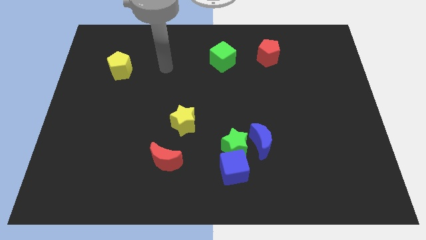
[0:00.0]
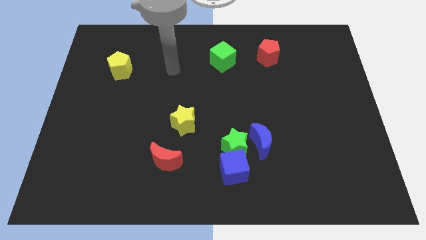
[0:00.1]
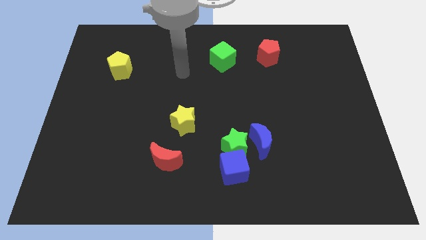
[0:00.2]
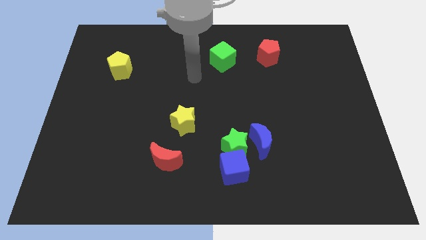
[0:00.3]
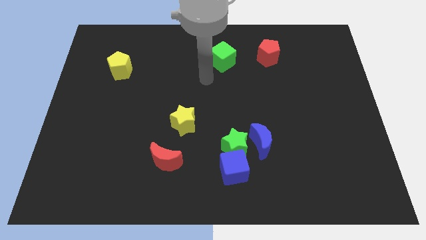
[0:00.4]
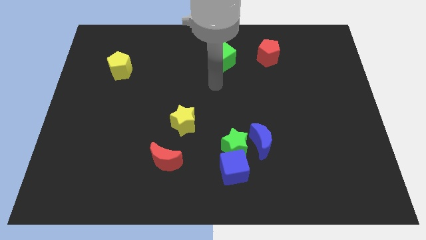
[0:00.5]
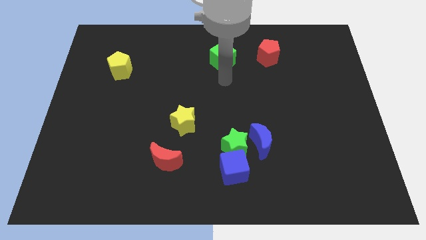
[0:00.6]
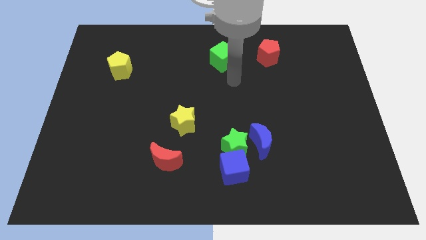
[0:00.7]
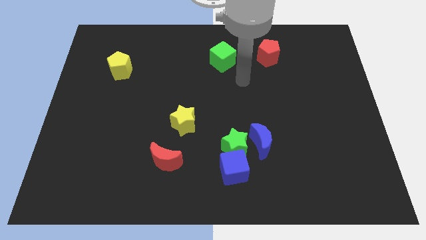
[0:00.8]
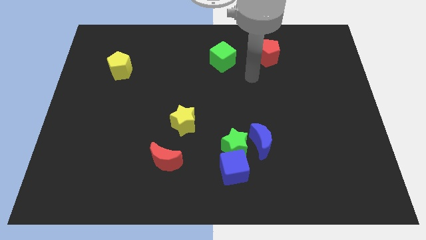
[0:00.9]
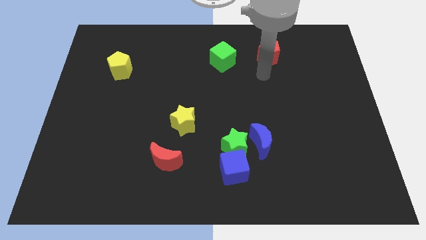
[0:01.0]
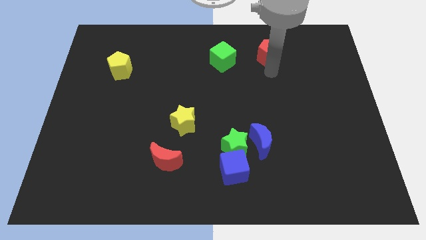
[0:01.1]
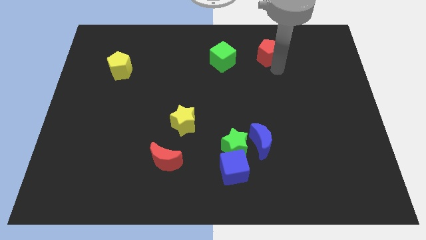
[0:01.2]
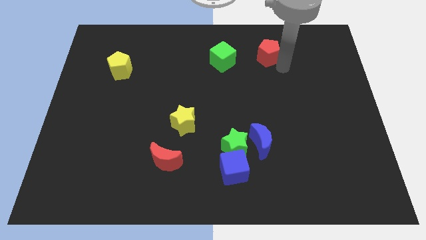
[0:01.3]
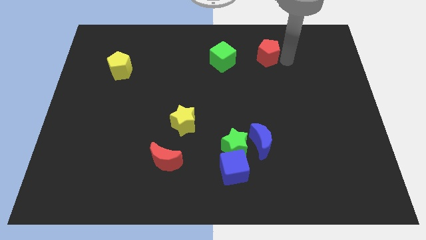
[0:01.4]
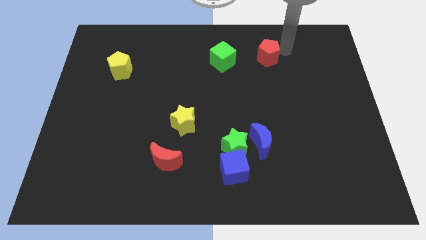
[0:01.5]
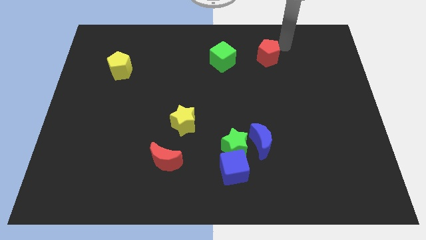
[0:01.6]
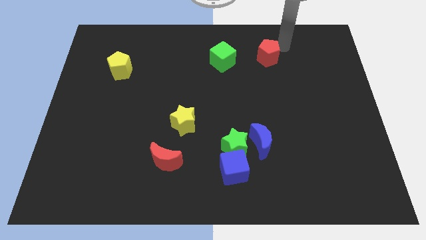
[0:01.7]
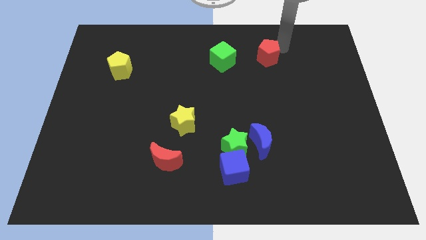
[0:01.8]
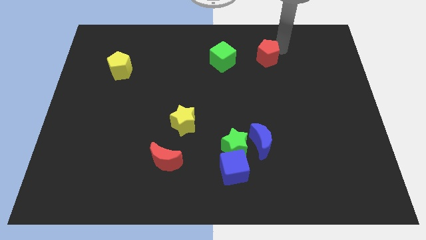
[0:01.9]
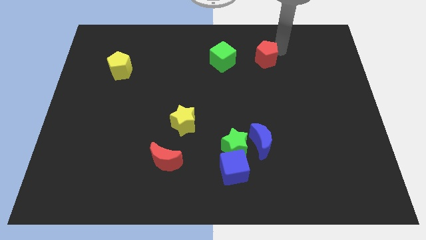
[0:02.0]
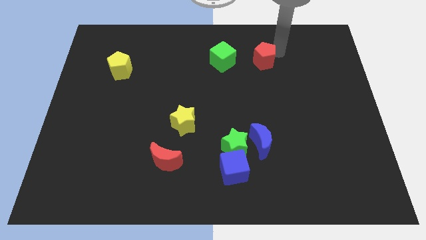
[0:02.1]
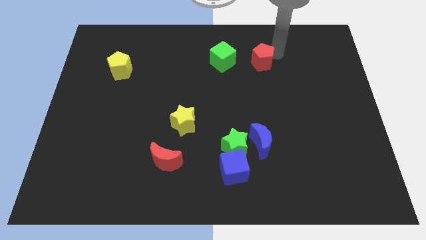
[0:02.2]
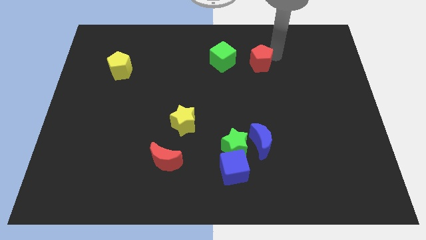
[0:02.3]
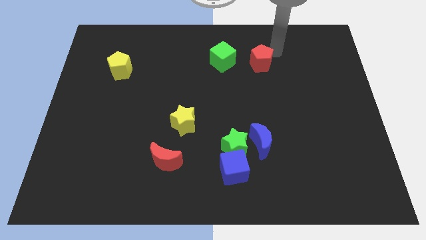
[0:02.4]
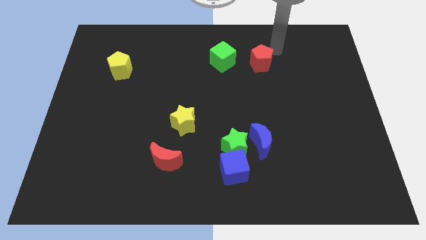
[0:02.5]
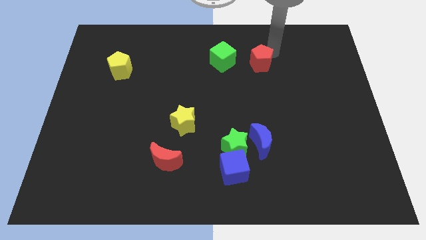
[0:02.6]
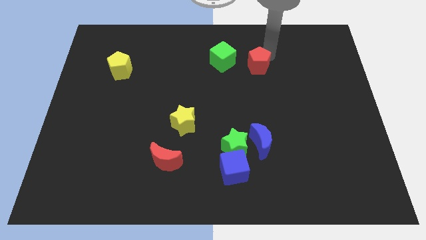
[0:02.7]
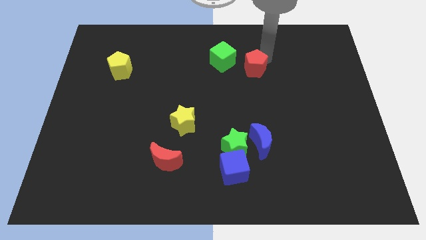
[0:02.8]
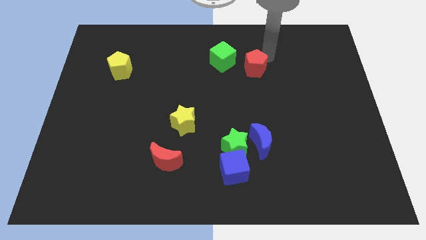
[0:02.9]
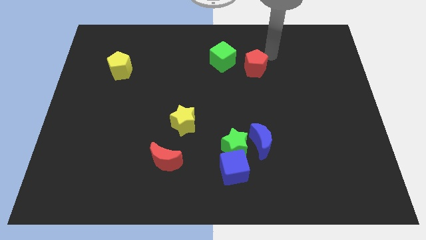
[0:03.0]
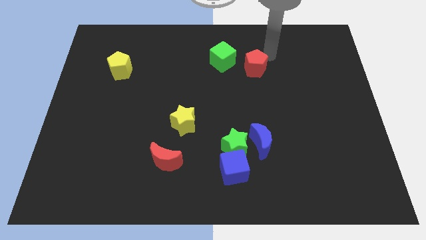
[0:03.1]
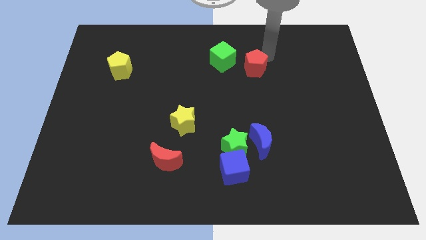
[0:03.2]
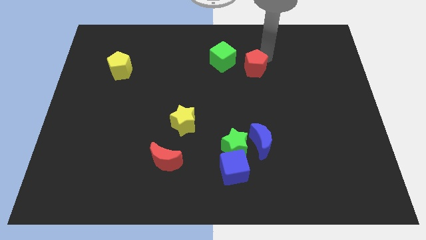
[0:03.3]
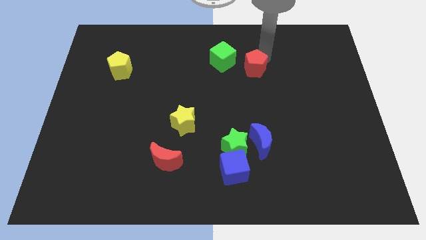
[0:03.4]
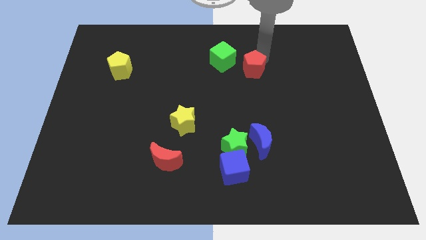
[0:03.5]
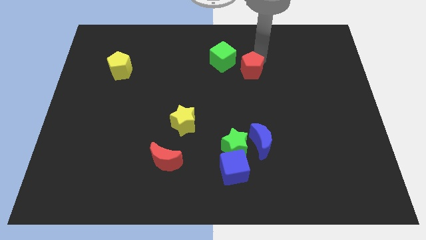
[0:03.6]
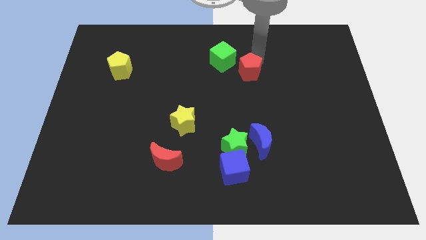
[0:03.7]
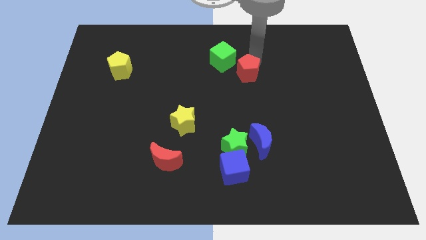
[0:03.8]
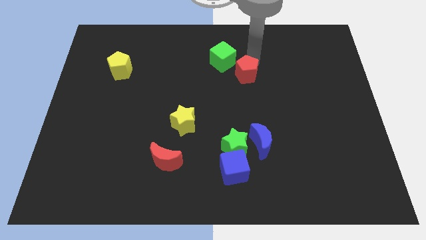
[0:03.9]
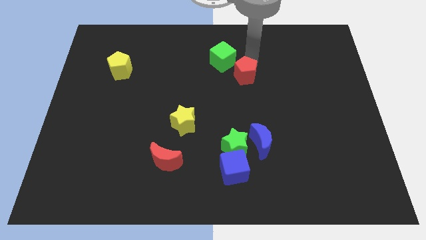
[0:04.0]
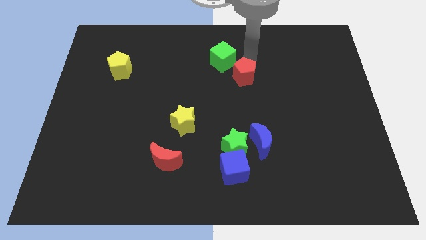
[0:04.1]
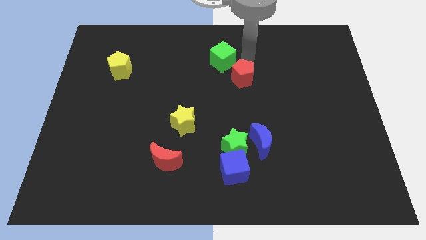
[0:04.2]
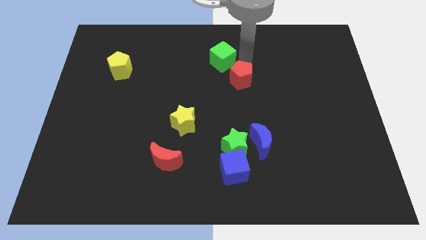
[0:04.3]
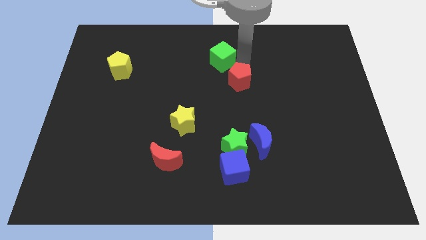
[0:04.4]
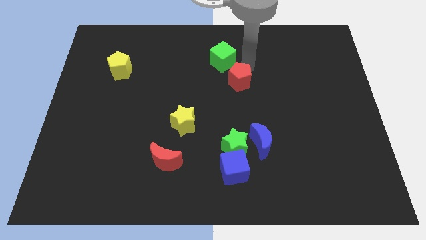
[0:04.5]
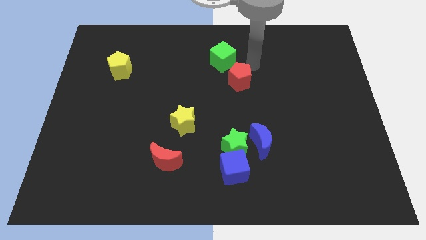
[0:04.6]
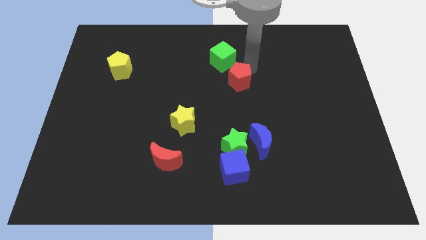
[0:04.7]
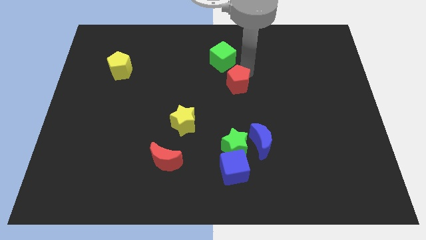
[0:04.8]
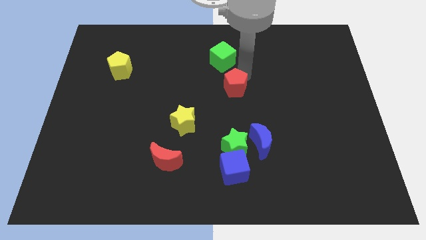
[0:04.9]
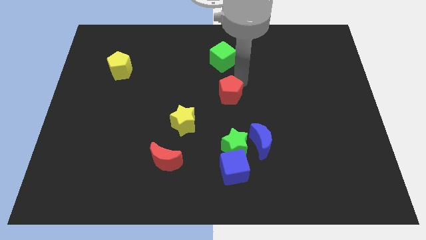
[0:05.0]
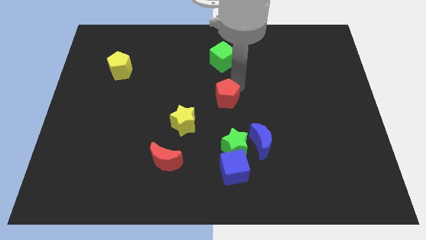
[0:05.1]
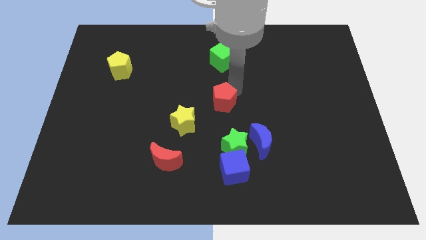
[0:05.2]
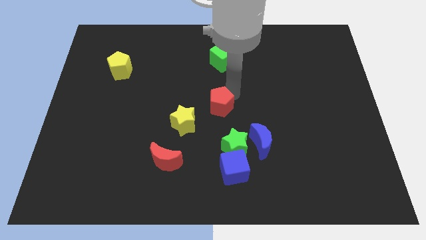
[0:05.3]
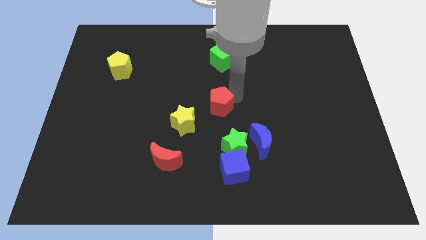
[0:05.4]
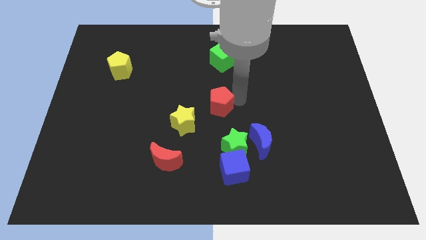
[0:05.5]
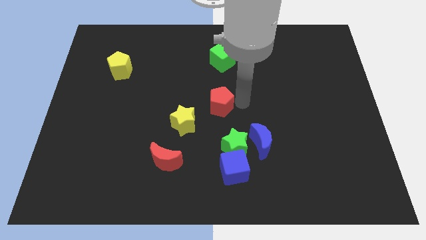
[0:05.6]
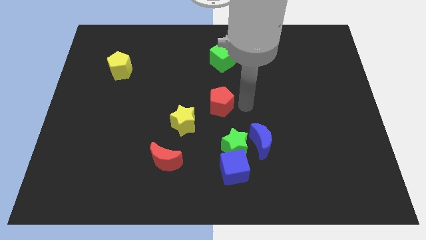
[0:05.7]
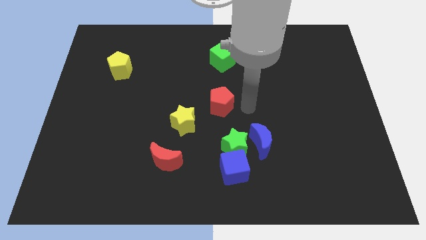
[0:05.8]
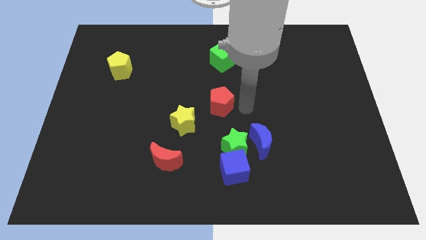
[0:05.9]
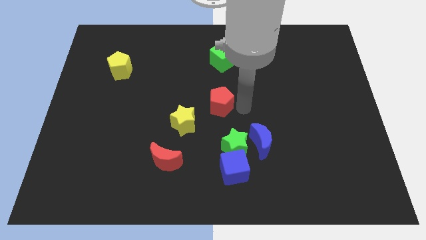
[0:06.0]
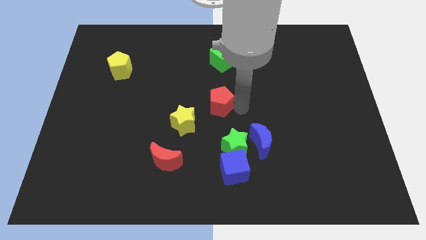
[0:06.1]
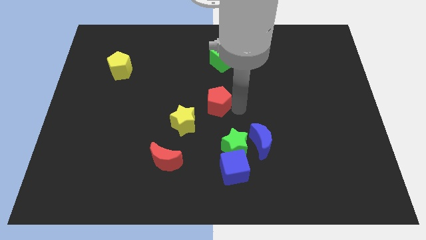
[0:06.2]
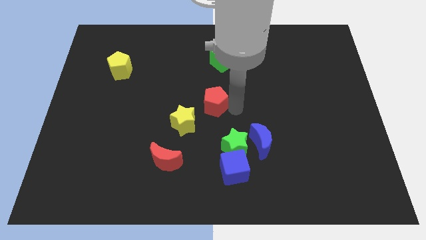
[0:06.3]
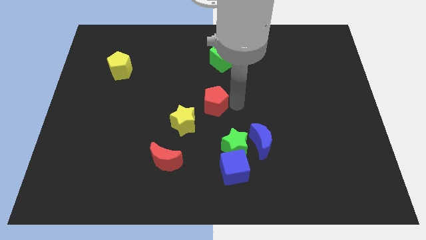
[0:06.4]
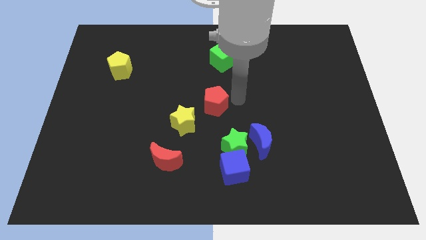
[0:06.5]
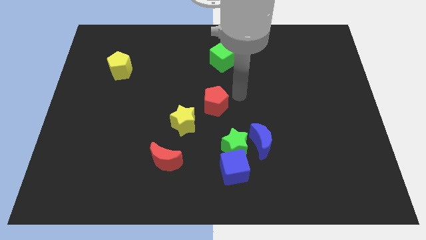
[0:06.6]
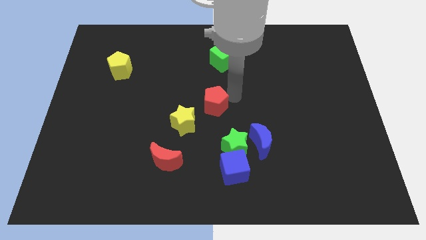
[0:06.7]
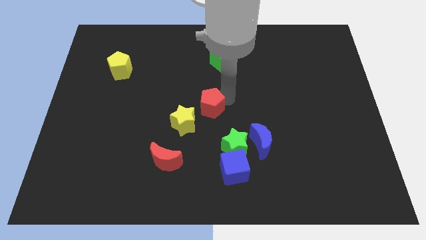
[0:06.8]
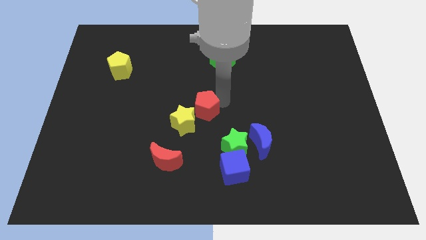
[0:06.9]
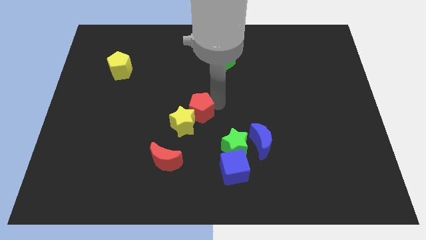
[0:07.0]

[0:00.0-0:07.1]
put the red pentagon to the yellow star
